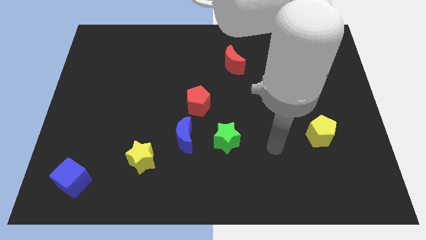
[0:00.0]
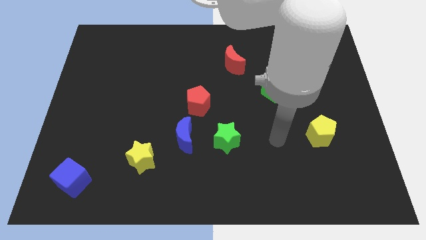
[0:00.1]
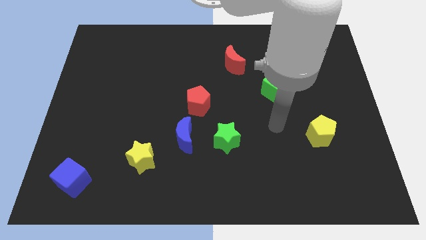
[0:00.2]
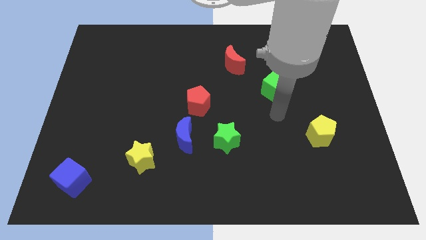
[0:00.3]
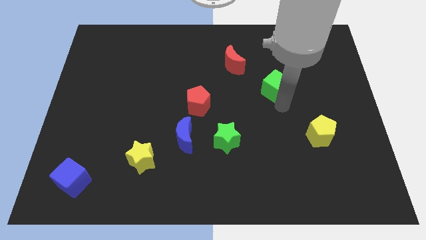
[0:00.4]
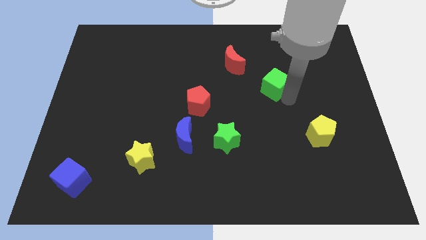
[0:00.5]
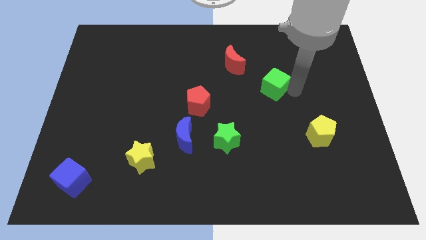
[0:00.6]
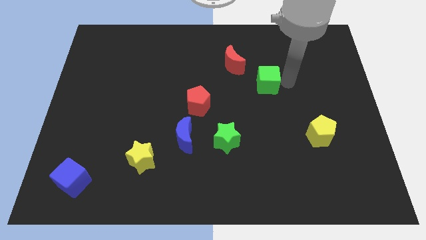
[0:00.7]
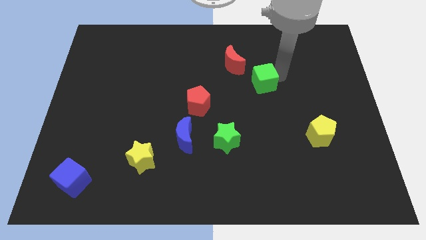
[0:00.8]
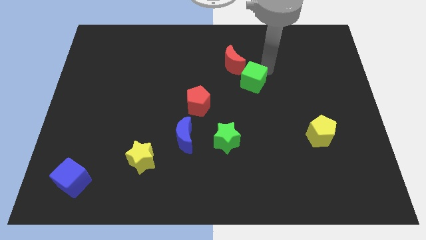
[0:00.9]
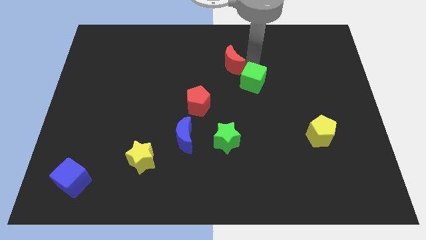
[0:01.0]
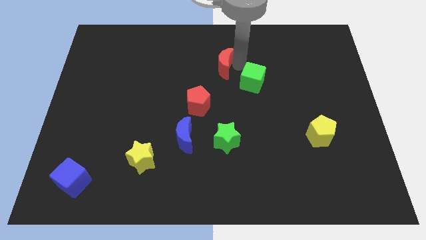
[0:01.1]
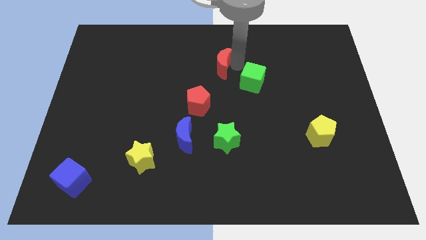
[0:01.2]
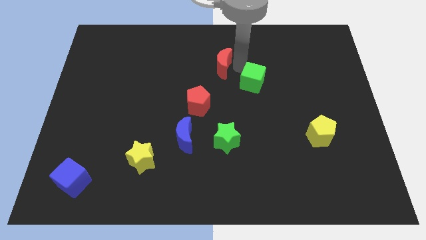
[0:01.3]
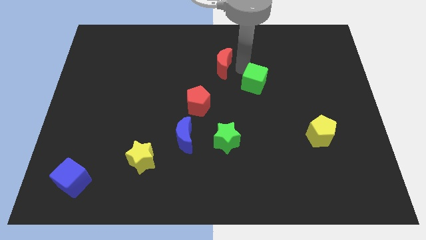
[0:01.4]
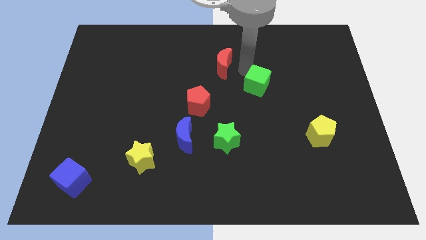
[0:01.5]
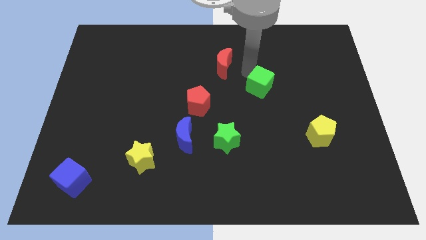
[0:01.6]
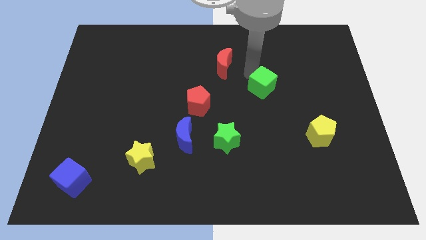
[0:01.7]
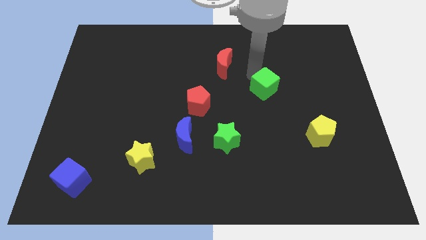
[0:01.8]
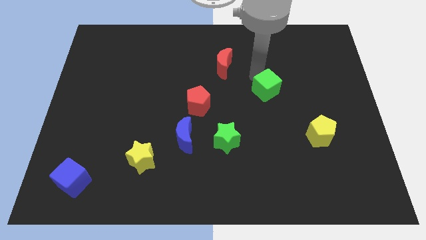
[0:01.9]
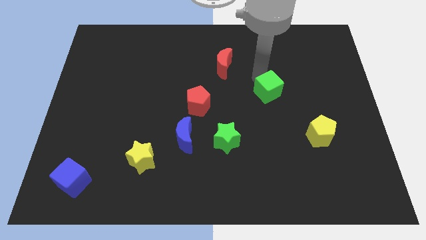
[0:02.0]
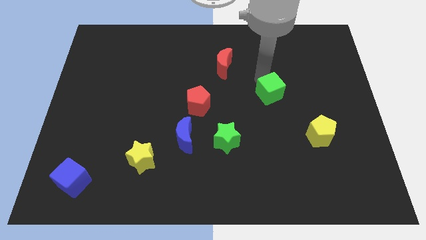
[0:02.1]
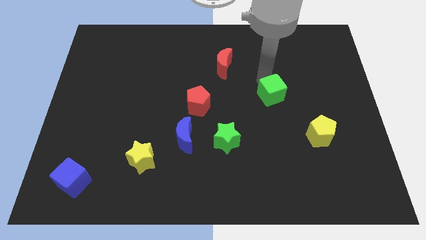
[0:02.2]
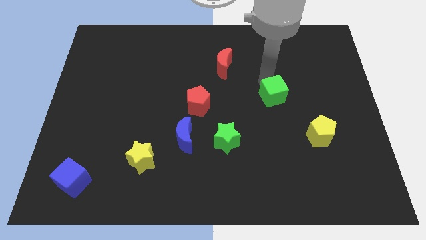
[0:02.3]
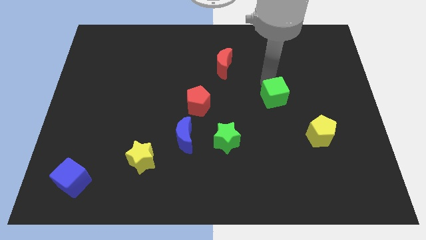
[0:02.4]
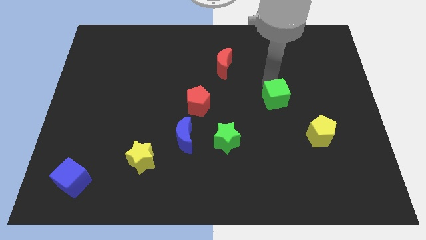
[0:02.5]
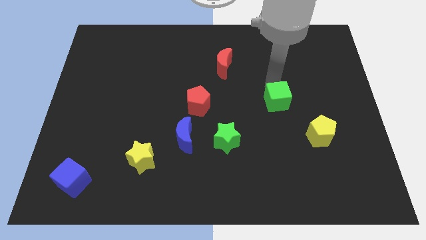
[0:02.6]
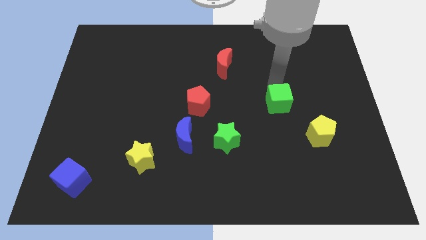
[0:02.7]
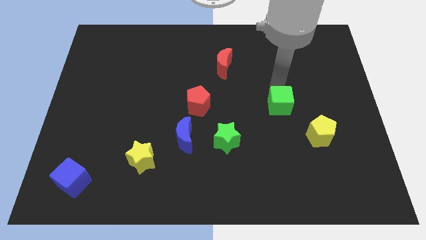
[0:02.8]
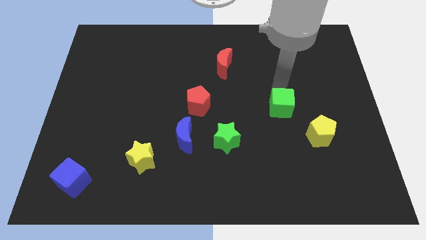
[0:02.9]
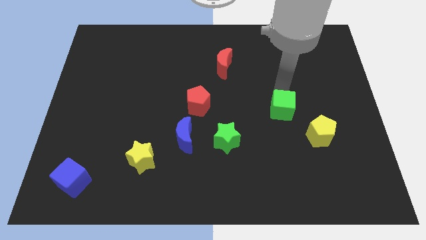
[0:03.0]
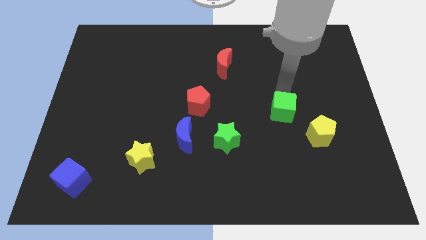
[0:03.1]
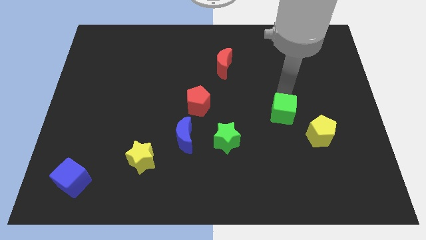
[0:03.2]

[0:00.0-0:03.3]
push the green cube a bit down

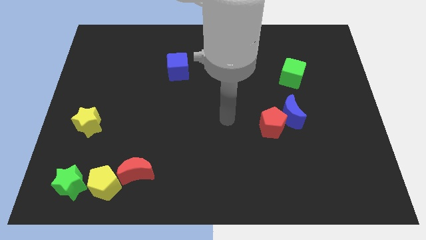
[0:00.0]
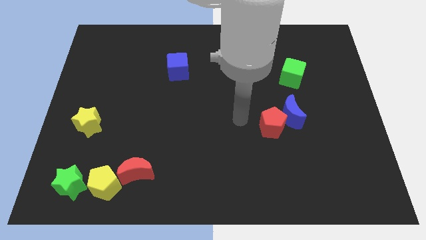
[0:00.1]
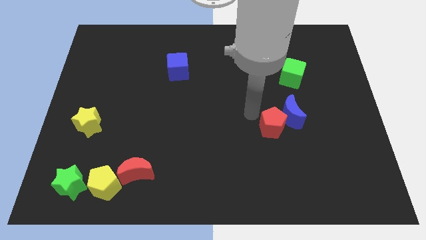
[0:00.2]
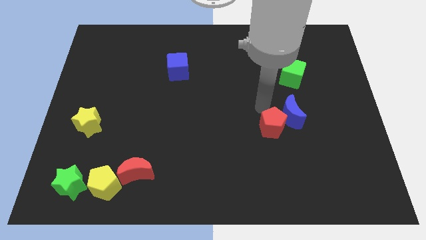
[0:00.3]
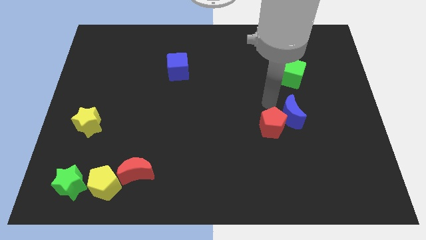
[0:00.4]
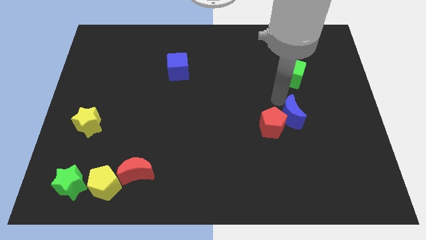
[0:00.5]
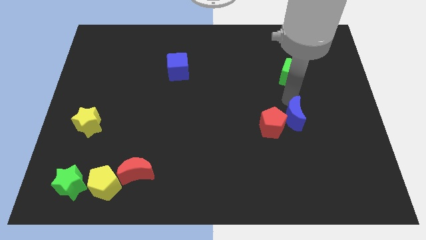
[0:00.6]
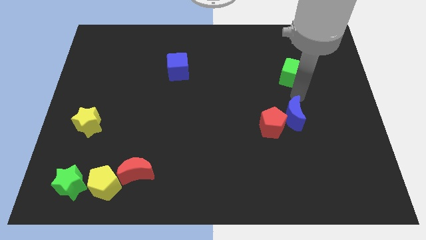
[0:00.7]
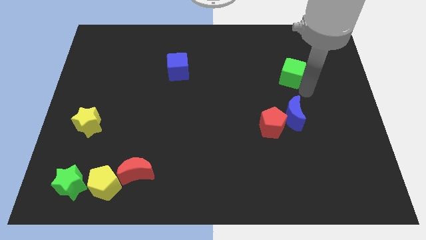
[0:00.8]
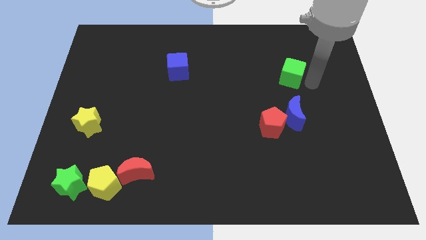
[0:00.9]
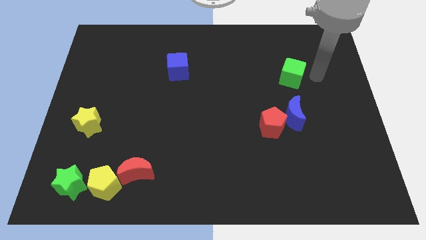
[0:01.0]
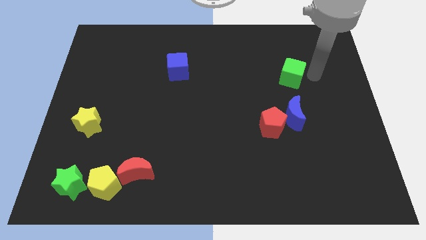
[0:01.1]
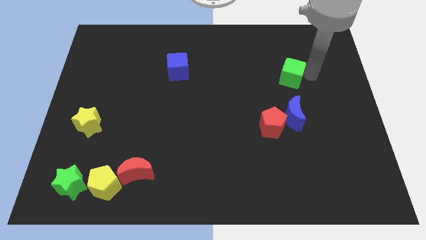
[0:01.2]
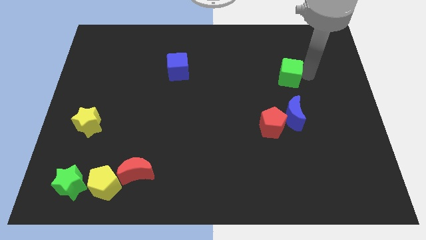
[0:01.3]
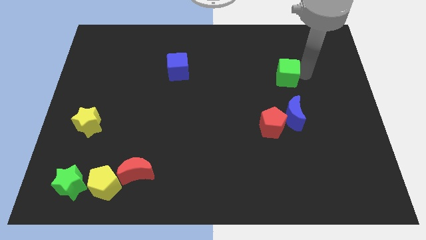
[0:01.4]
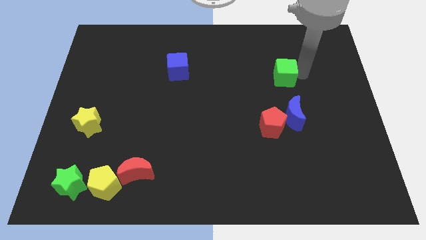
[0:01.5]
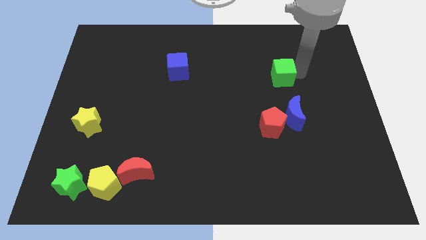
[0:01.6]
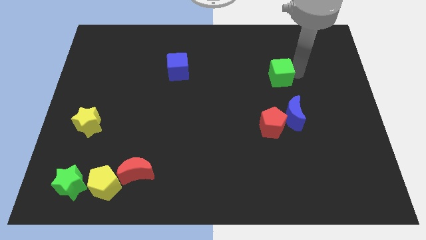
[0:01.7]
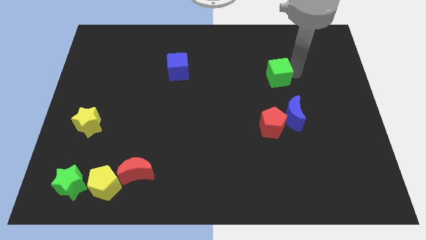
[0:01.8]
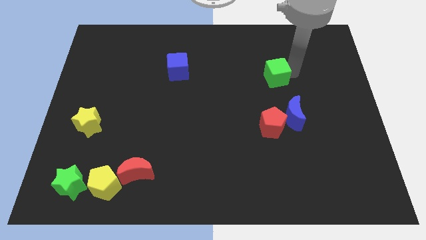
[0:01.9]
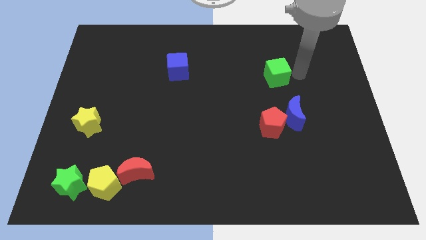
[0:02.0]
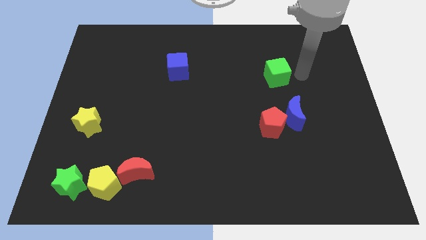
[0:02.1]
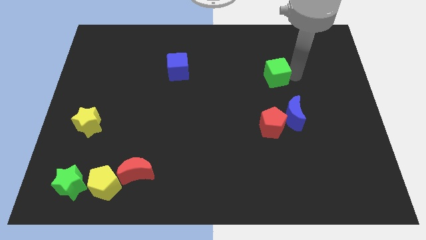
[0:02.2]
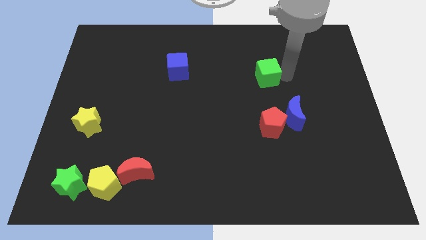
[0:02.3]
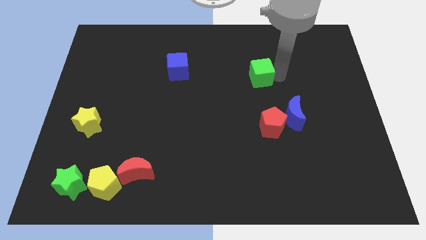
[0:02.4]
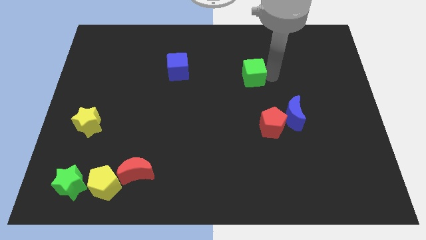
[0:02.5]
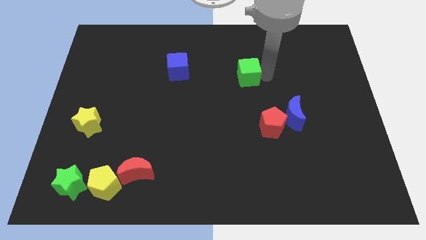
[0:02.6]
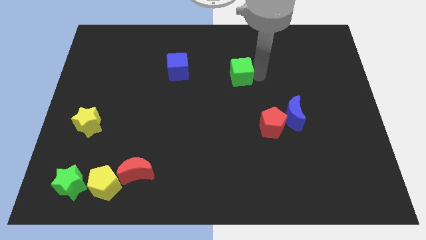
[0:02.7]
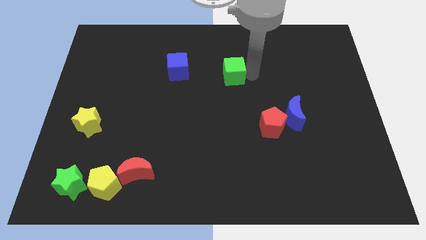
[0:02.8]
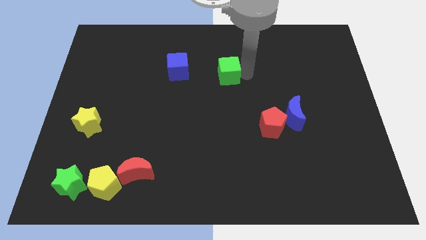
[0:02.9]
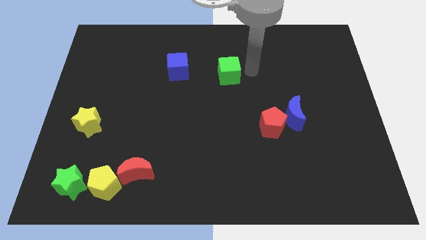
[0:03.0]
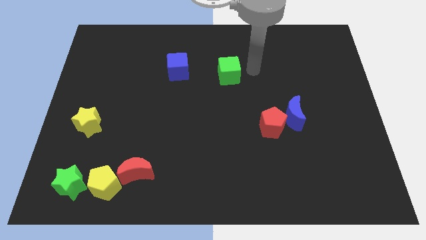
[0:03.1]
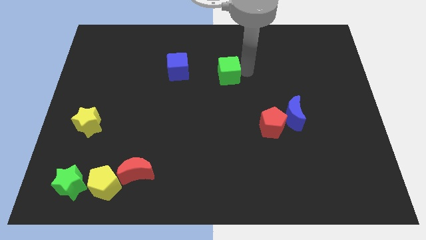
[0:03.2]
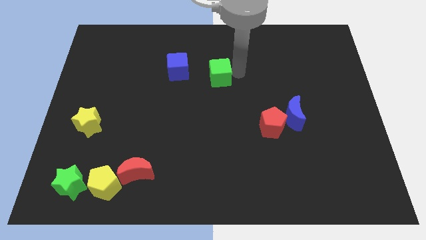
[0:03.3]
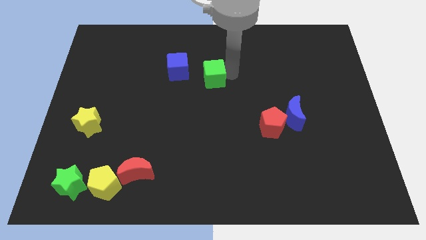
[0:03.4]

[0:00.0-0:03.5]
move the green cube left

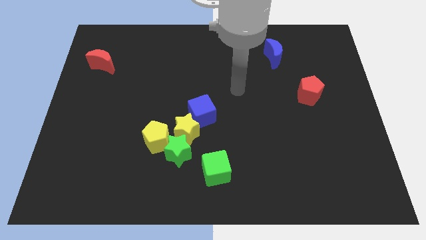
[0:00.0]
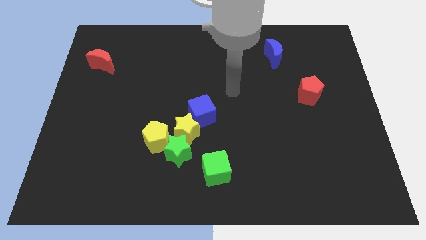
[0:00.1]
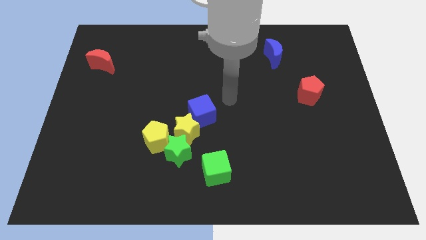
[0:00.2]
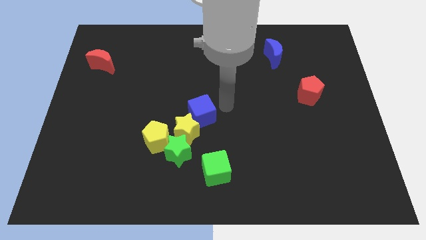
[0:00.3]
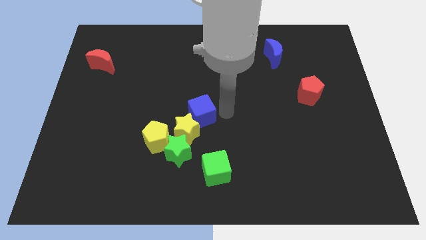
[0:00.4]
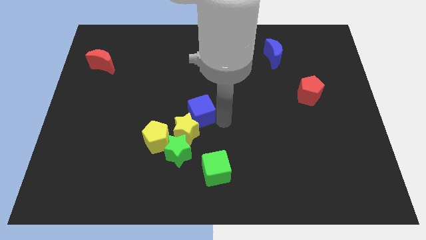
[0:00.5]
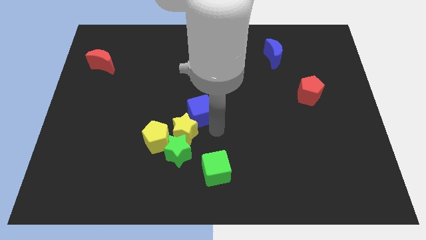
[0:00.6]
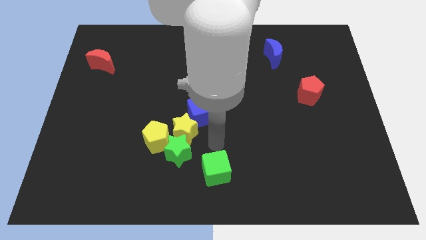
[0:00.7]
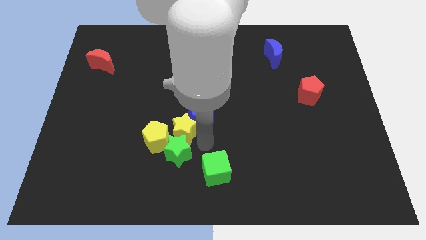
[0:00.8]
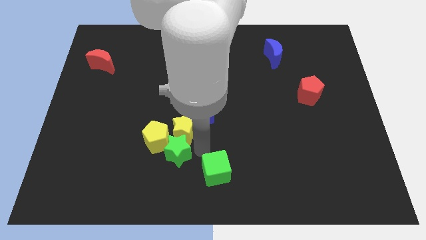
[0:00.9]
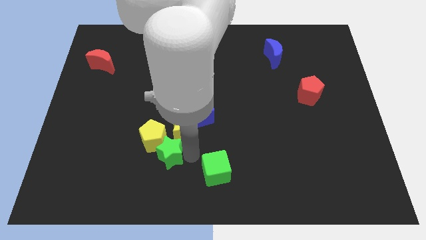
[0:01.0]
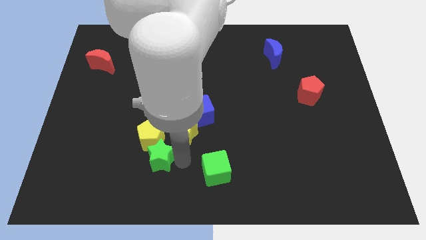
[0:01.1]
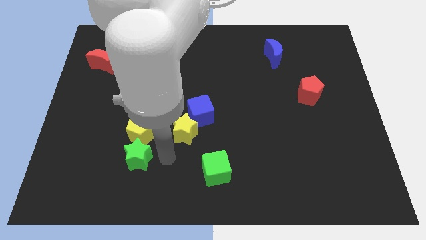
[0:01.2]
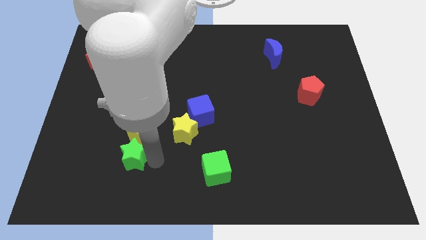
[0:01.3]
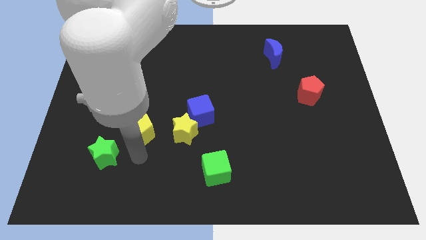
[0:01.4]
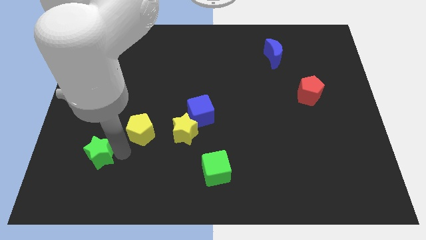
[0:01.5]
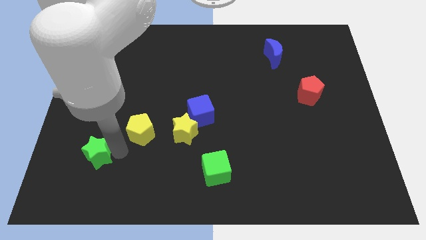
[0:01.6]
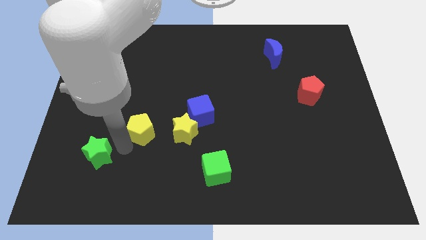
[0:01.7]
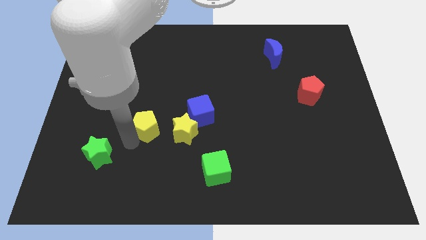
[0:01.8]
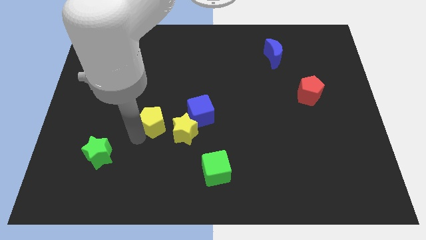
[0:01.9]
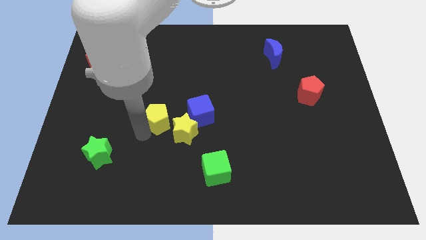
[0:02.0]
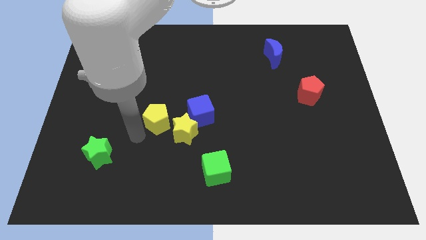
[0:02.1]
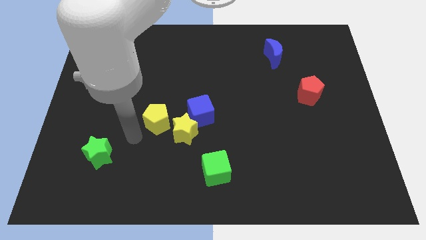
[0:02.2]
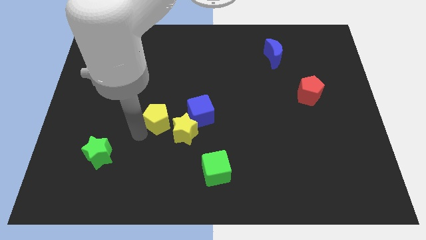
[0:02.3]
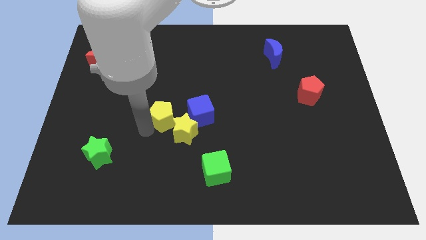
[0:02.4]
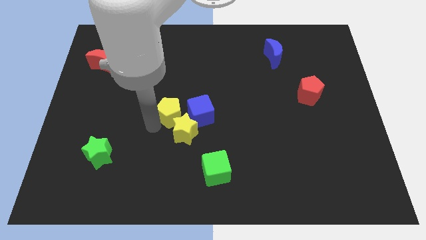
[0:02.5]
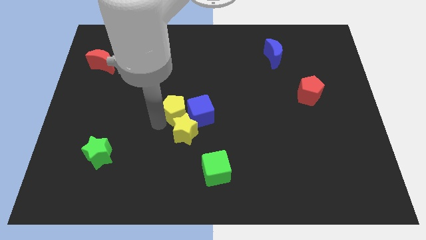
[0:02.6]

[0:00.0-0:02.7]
move the yellow pentagon upwards and to the right a little
